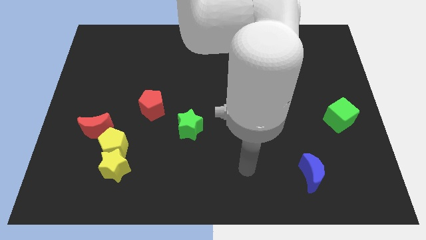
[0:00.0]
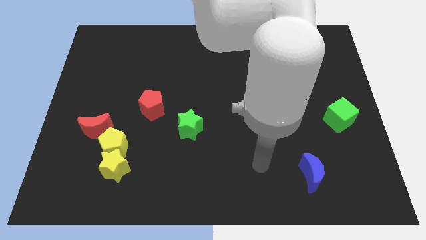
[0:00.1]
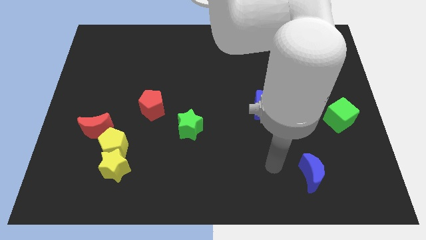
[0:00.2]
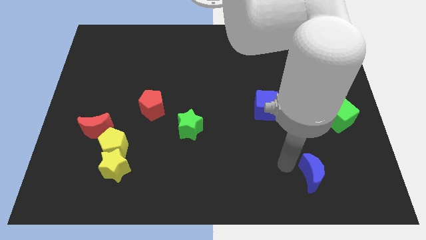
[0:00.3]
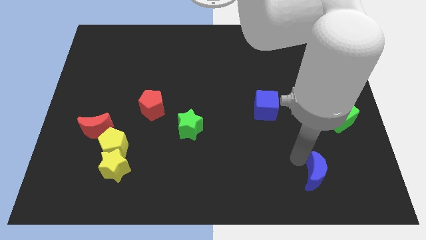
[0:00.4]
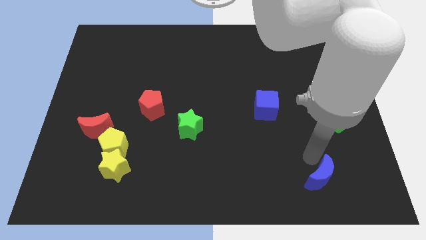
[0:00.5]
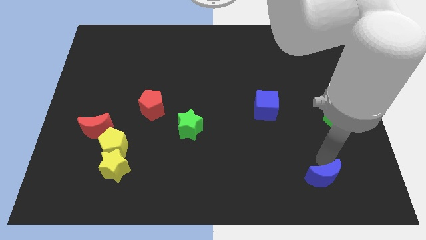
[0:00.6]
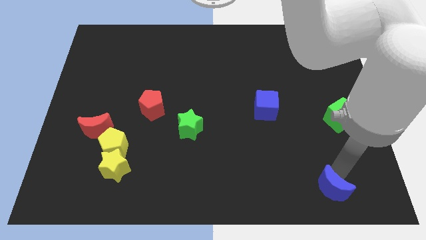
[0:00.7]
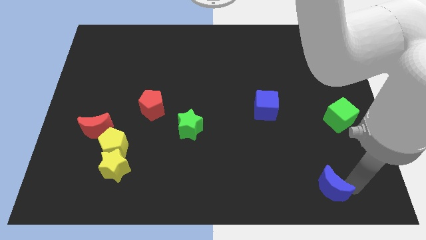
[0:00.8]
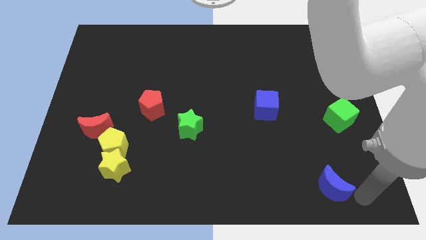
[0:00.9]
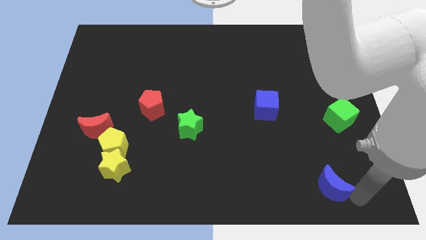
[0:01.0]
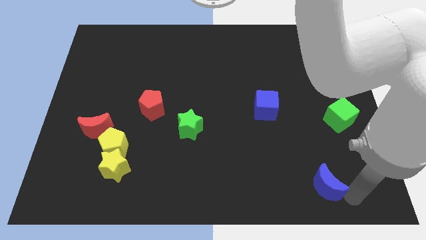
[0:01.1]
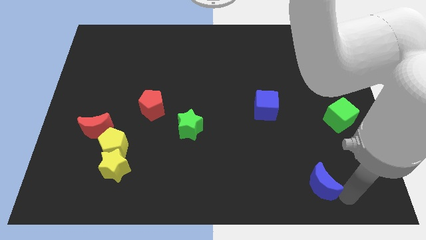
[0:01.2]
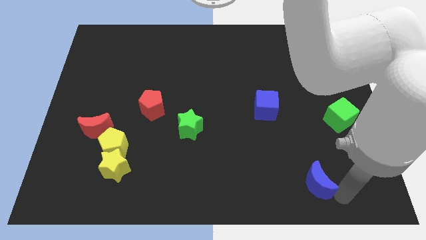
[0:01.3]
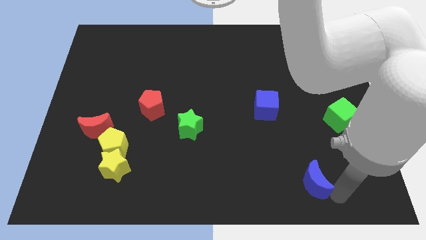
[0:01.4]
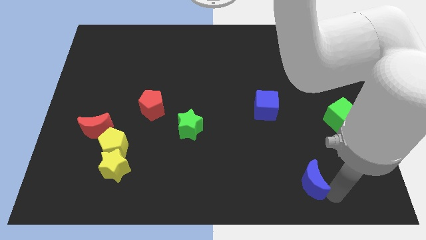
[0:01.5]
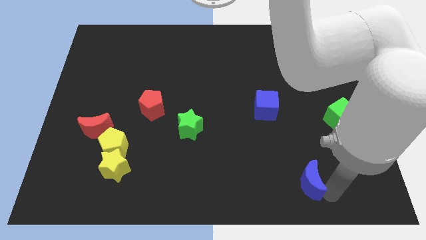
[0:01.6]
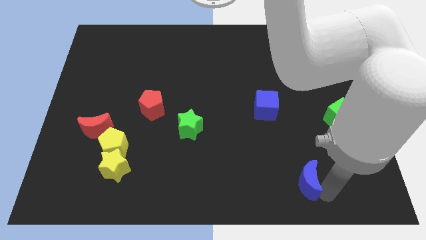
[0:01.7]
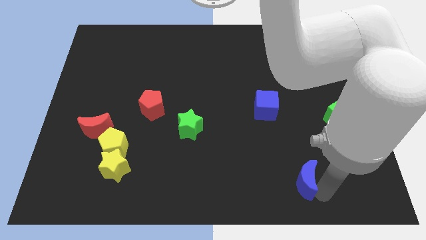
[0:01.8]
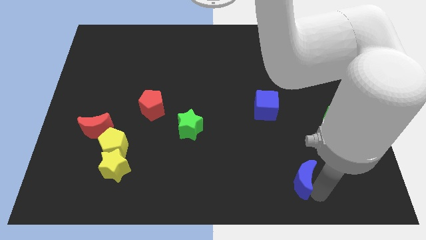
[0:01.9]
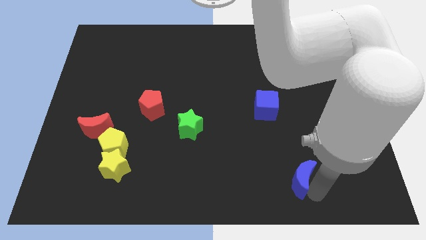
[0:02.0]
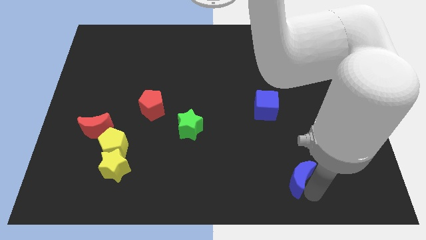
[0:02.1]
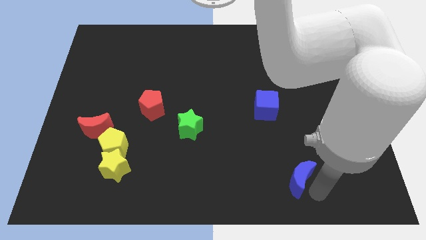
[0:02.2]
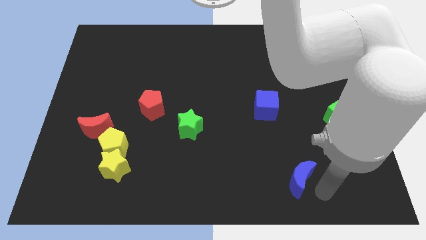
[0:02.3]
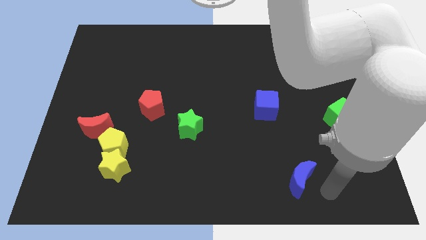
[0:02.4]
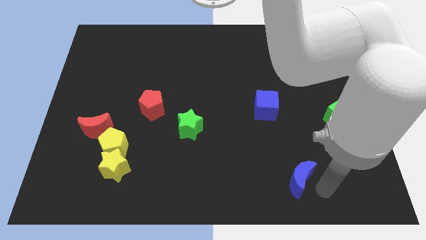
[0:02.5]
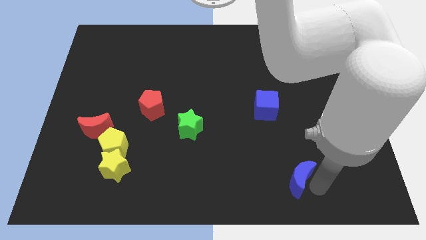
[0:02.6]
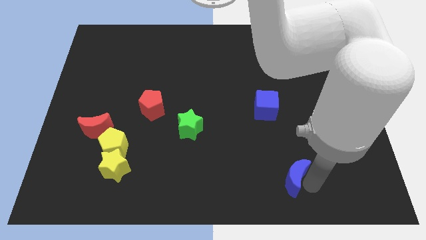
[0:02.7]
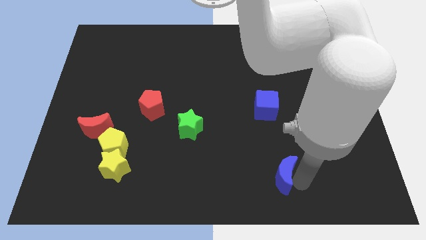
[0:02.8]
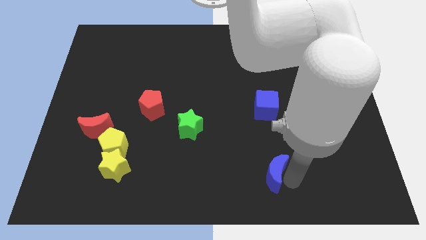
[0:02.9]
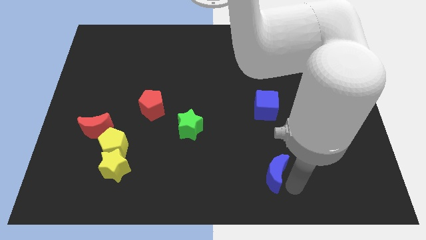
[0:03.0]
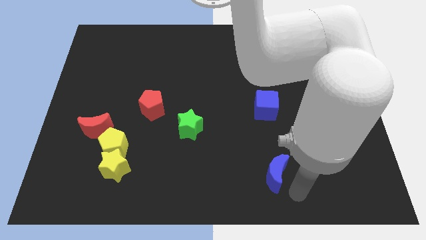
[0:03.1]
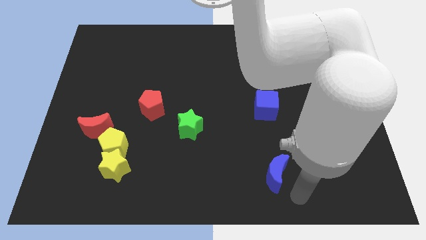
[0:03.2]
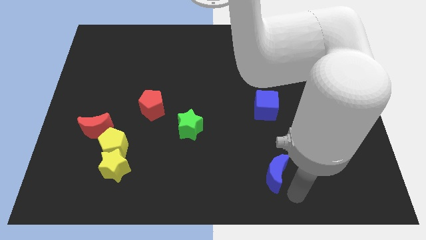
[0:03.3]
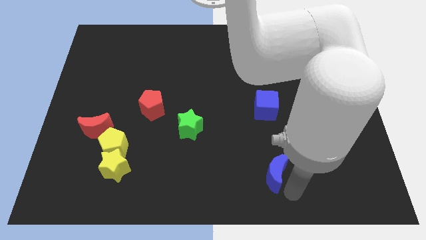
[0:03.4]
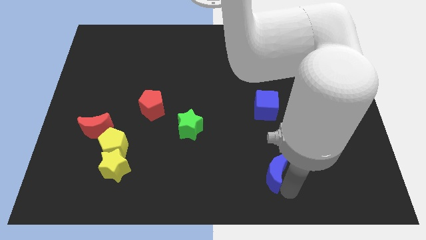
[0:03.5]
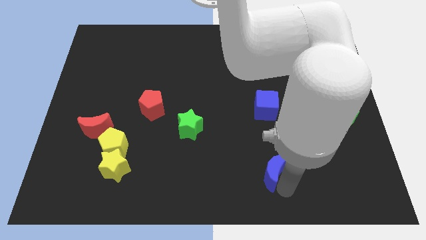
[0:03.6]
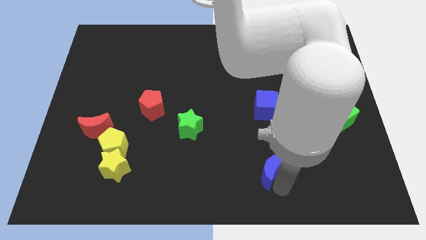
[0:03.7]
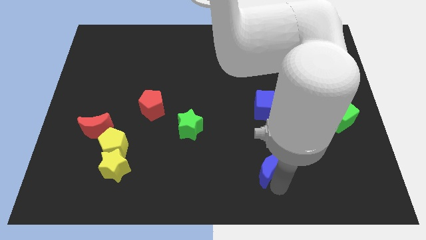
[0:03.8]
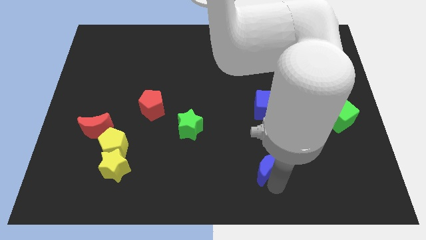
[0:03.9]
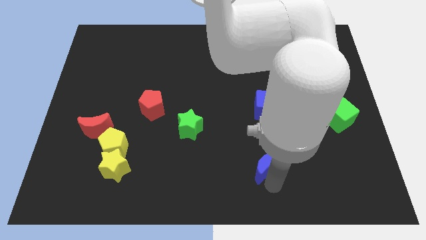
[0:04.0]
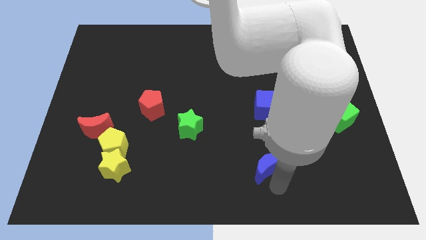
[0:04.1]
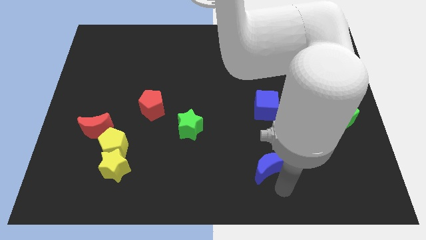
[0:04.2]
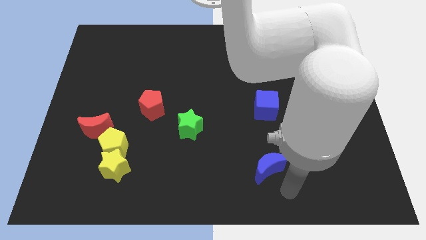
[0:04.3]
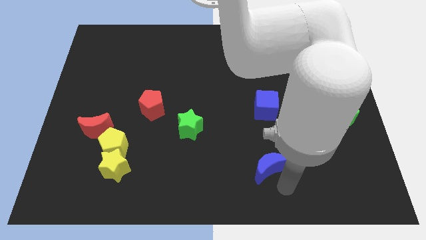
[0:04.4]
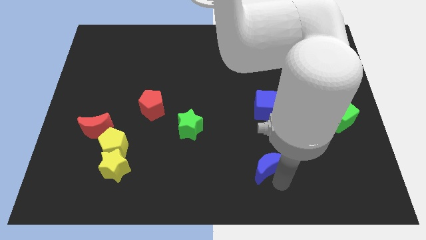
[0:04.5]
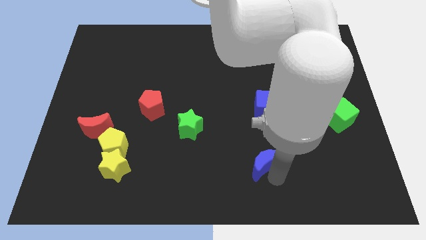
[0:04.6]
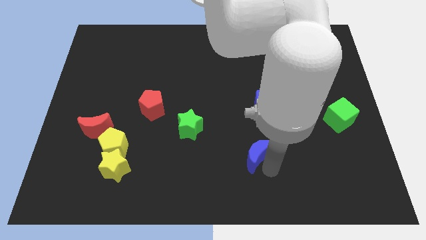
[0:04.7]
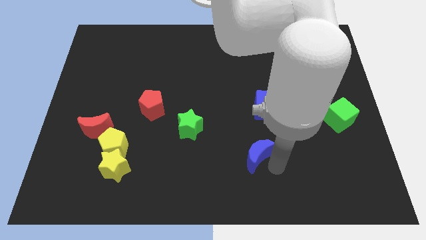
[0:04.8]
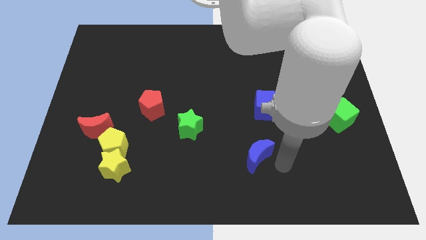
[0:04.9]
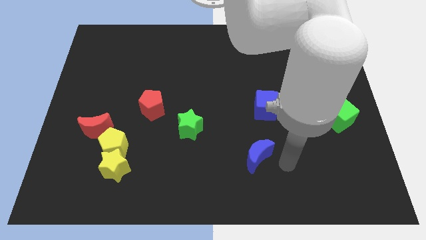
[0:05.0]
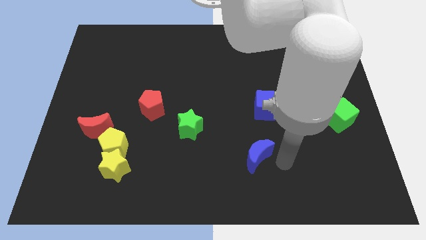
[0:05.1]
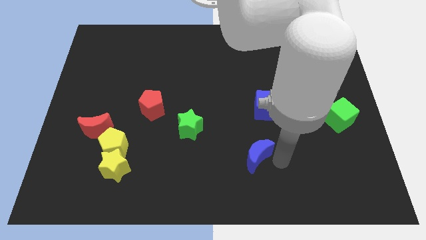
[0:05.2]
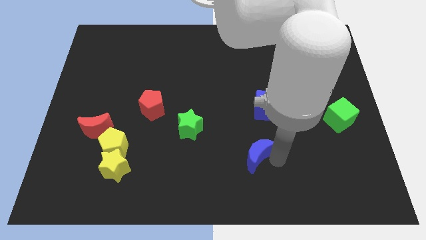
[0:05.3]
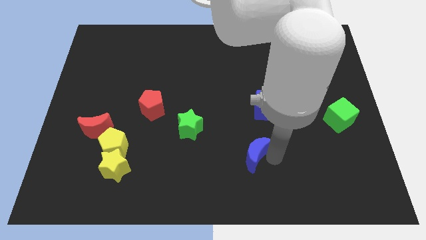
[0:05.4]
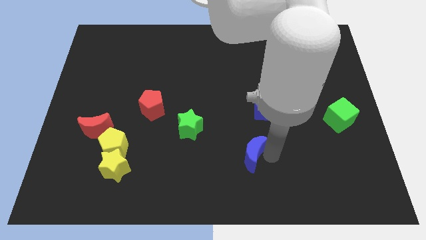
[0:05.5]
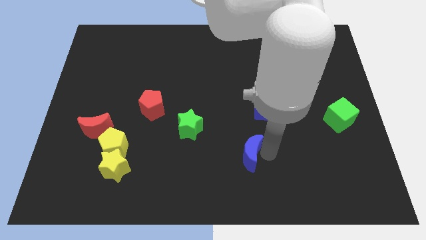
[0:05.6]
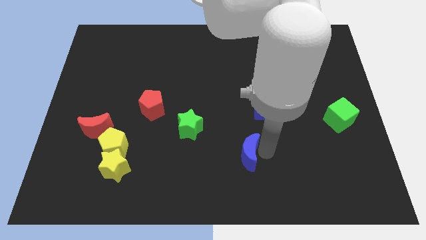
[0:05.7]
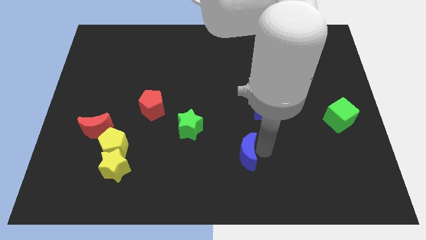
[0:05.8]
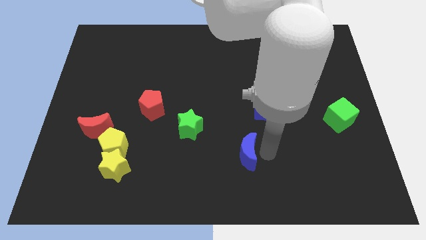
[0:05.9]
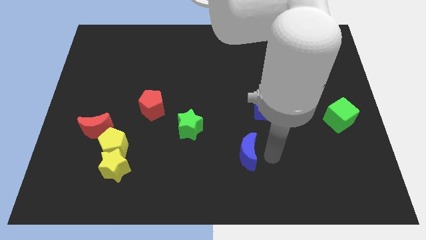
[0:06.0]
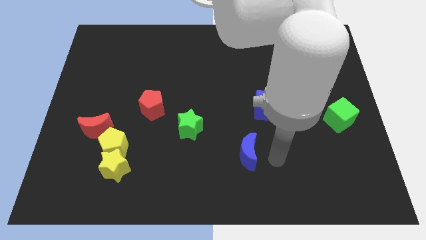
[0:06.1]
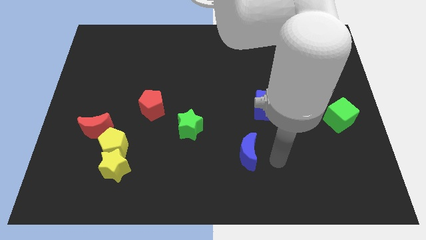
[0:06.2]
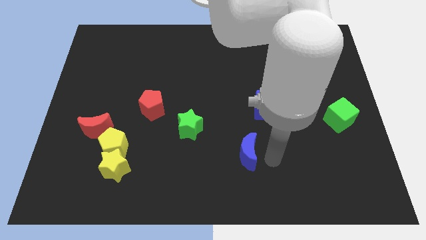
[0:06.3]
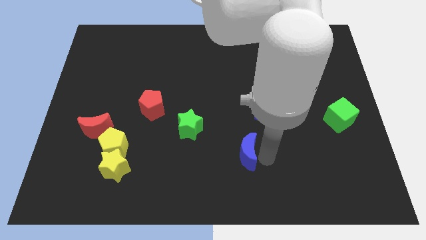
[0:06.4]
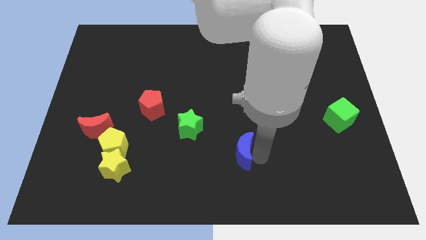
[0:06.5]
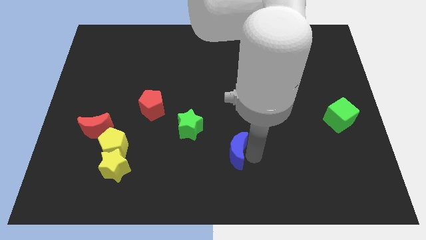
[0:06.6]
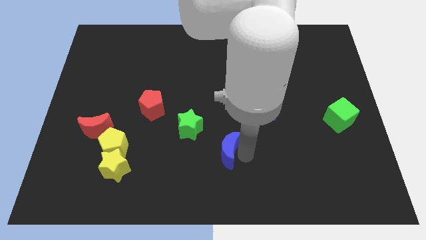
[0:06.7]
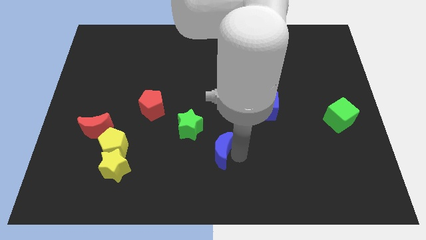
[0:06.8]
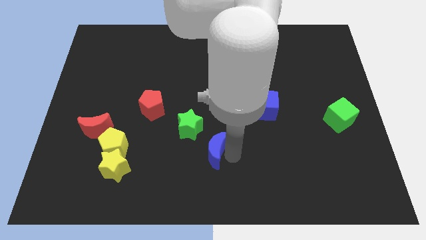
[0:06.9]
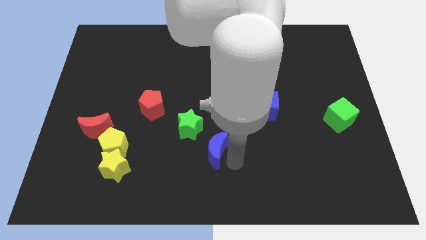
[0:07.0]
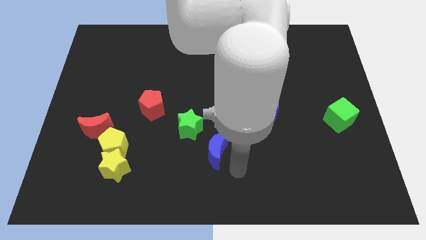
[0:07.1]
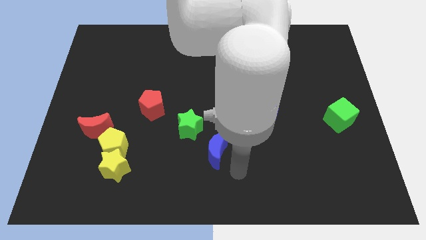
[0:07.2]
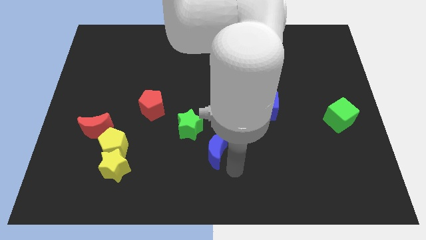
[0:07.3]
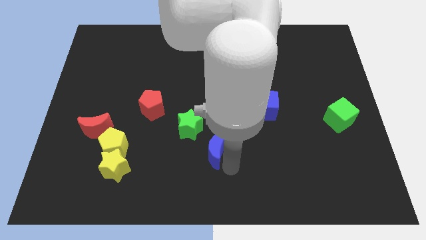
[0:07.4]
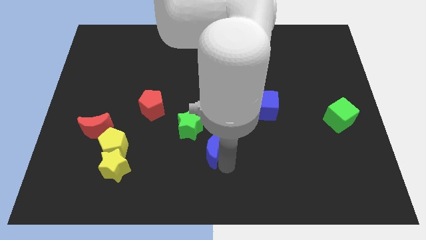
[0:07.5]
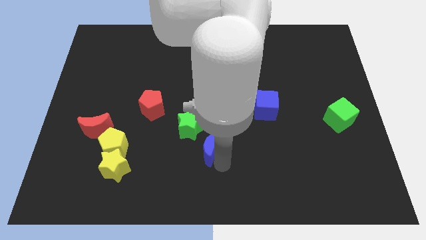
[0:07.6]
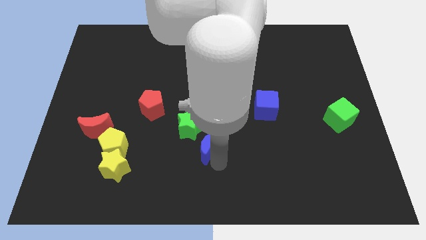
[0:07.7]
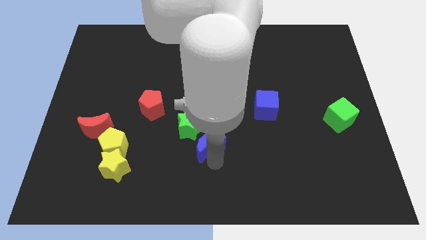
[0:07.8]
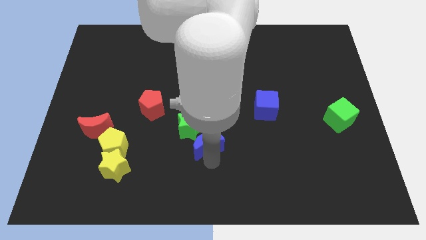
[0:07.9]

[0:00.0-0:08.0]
slide the blue moon next to the green star
